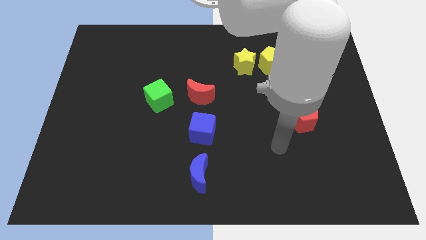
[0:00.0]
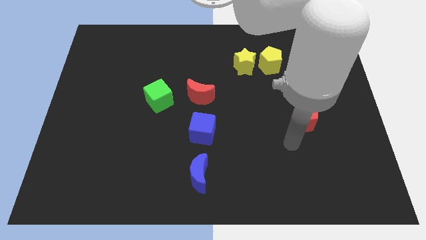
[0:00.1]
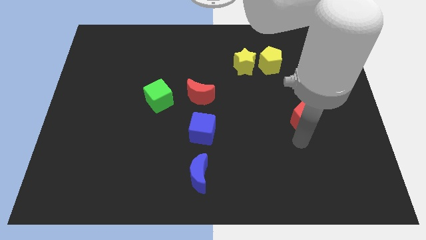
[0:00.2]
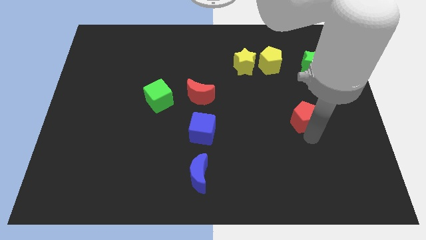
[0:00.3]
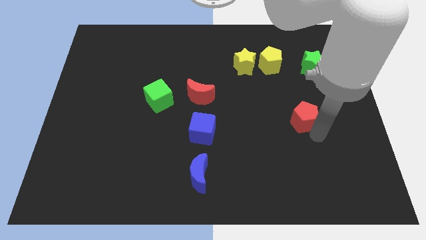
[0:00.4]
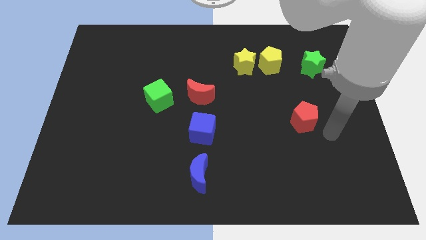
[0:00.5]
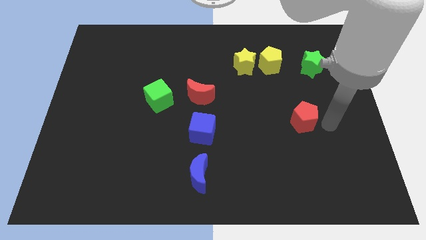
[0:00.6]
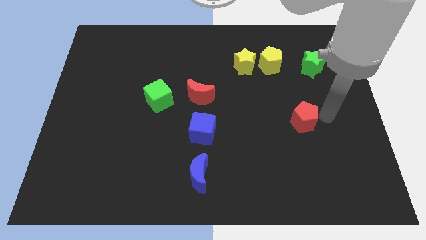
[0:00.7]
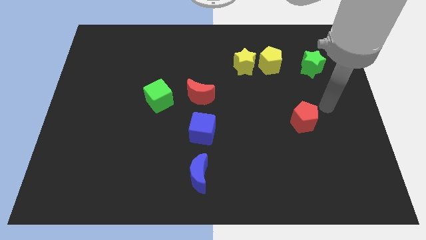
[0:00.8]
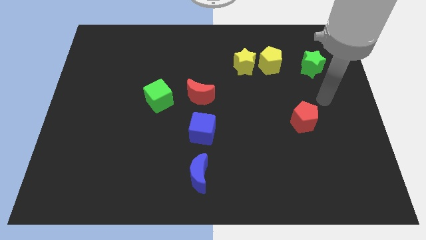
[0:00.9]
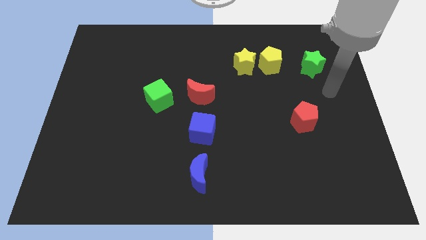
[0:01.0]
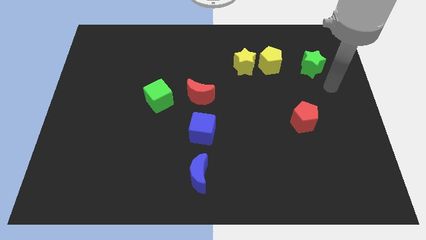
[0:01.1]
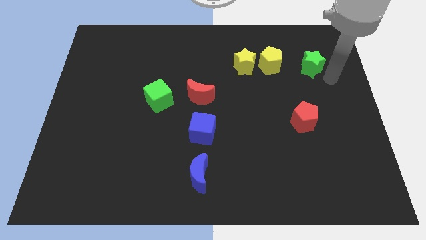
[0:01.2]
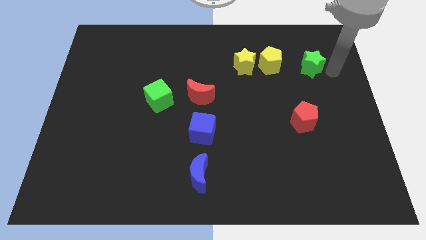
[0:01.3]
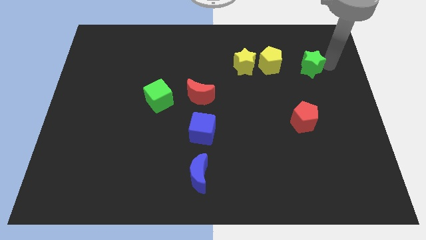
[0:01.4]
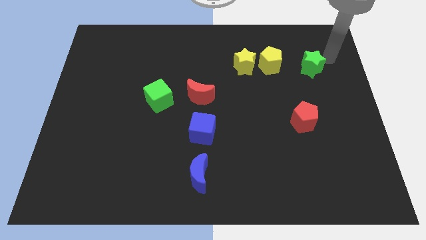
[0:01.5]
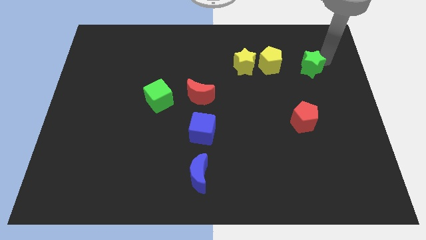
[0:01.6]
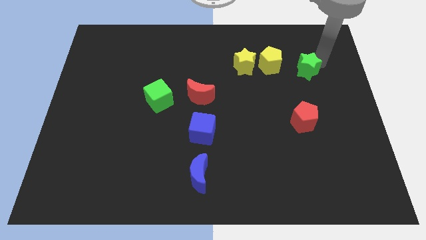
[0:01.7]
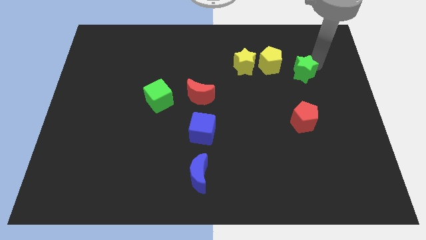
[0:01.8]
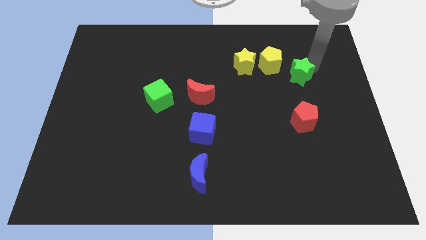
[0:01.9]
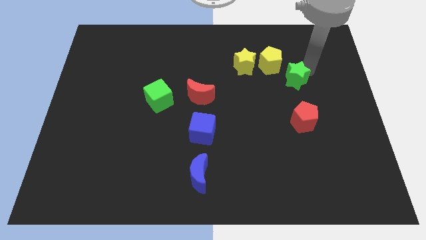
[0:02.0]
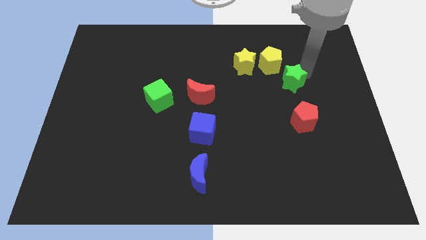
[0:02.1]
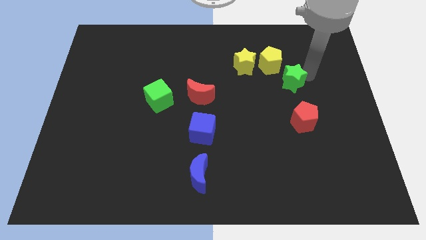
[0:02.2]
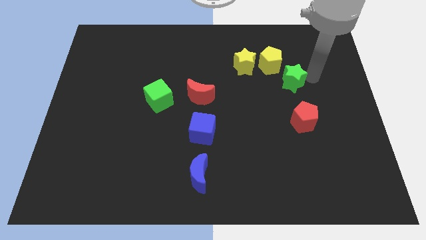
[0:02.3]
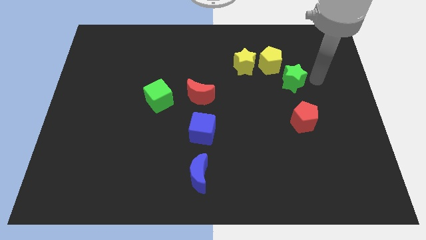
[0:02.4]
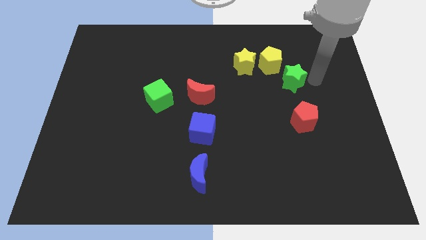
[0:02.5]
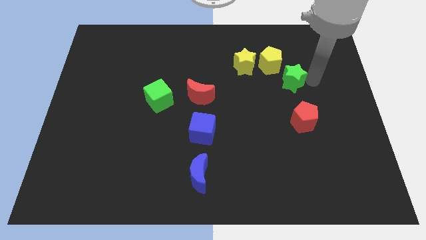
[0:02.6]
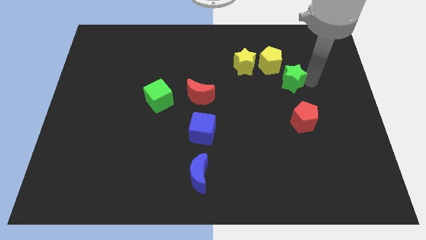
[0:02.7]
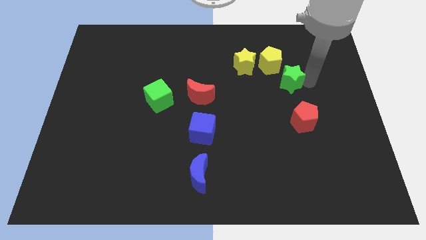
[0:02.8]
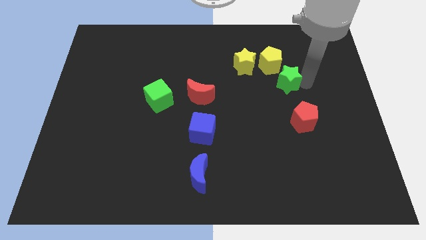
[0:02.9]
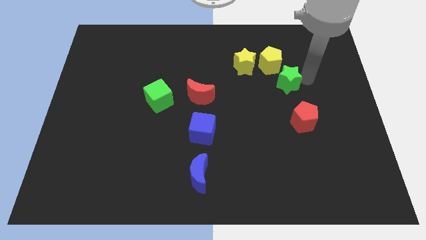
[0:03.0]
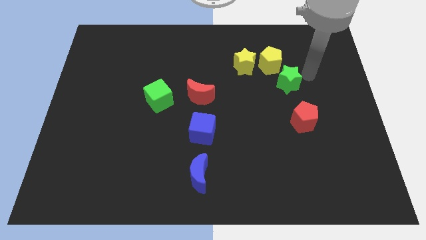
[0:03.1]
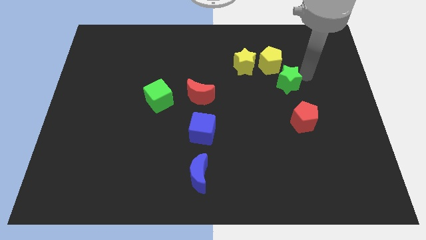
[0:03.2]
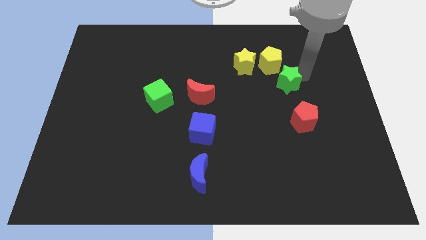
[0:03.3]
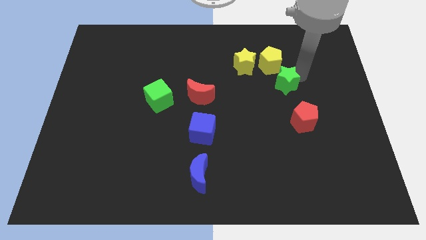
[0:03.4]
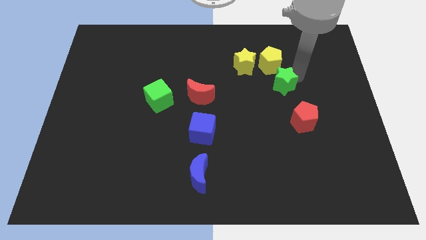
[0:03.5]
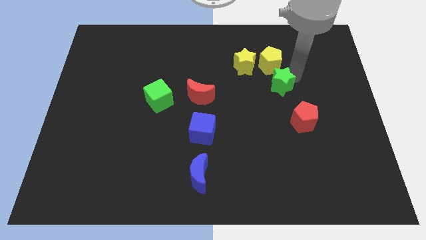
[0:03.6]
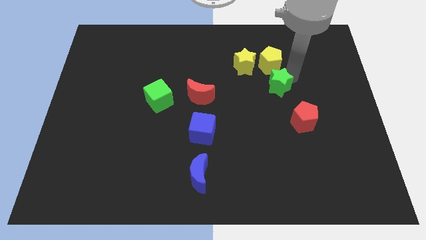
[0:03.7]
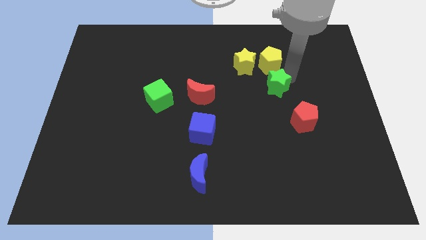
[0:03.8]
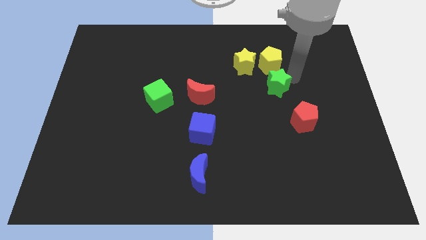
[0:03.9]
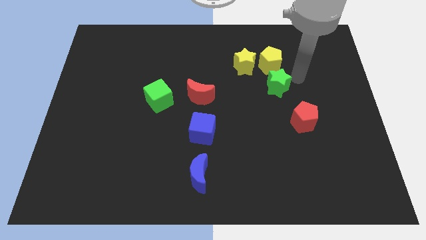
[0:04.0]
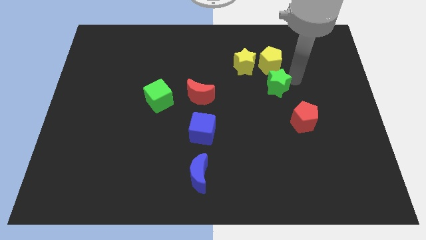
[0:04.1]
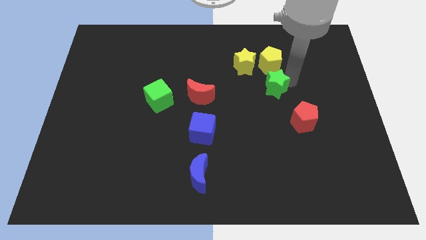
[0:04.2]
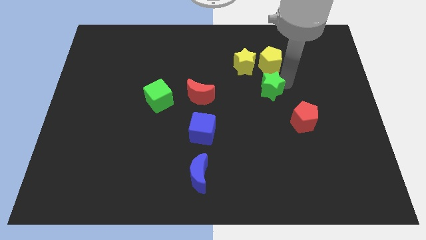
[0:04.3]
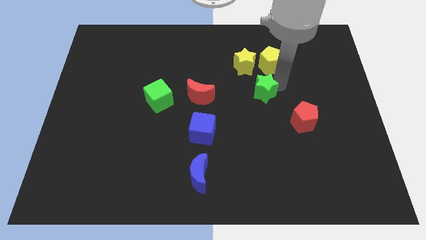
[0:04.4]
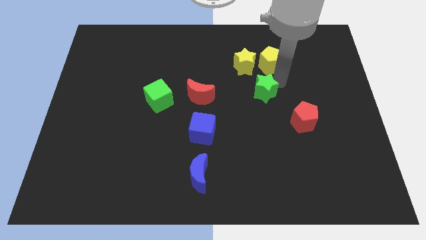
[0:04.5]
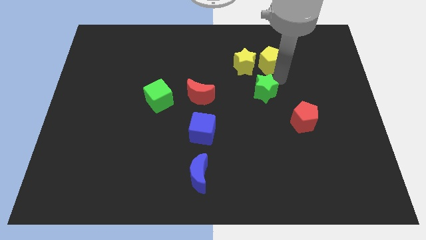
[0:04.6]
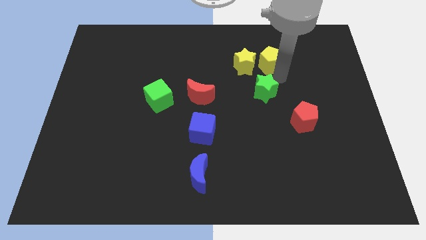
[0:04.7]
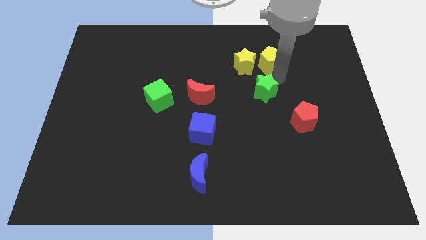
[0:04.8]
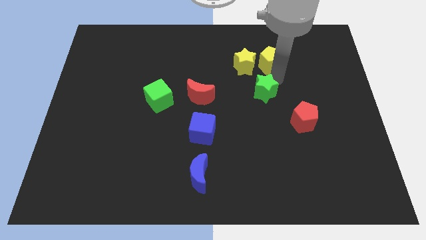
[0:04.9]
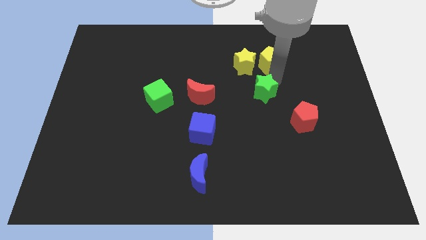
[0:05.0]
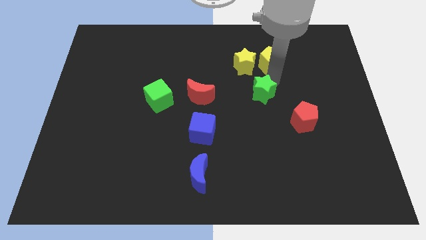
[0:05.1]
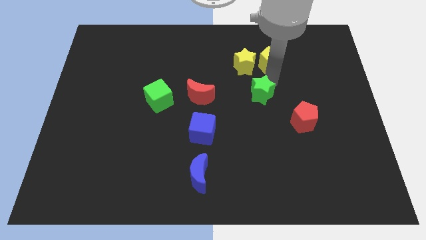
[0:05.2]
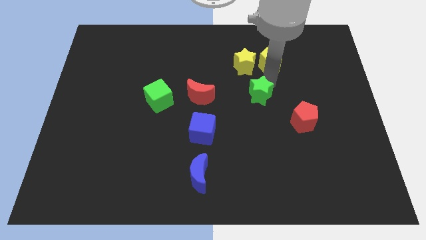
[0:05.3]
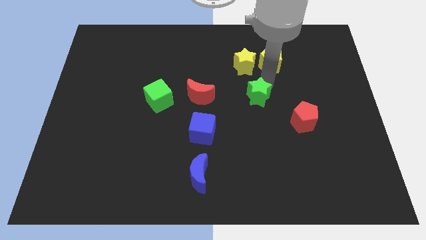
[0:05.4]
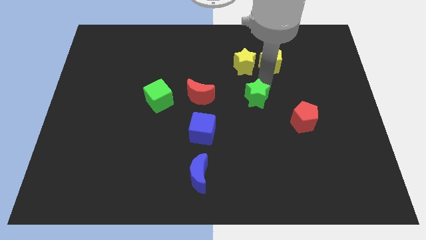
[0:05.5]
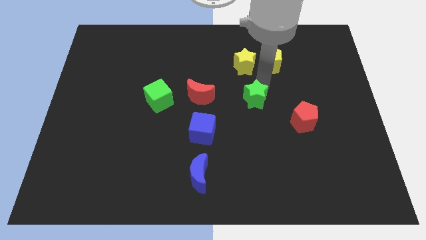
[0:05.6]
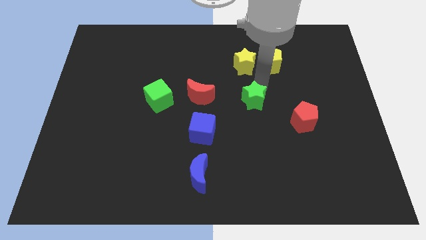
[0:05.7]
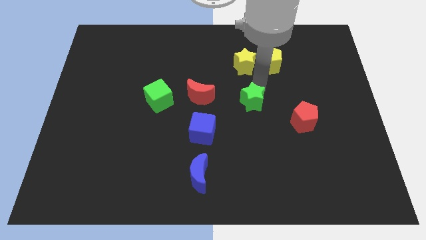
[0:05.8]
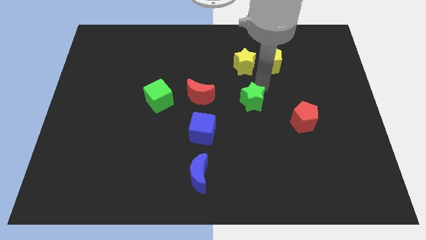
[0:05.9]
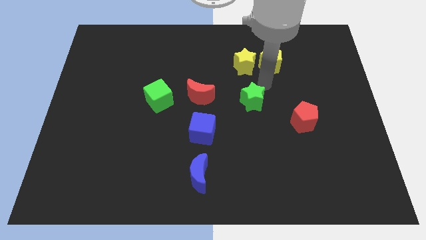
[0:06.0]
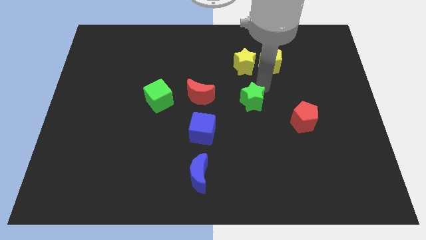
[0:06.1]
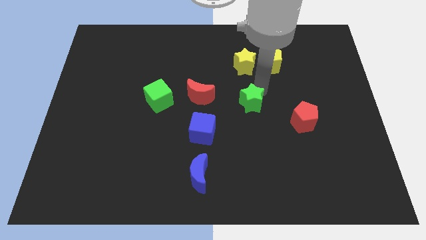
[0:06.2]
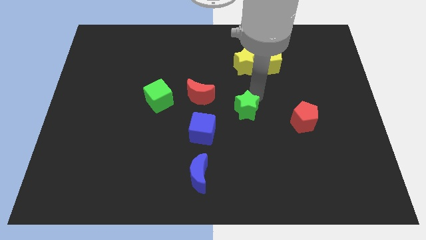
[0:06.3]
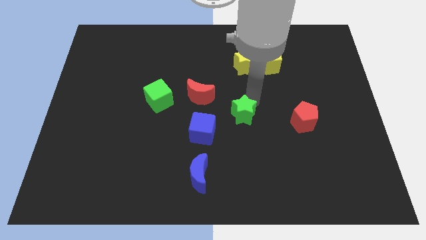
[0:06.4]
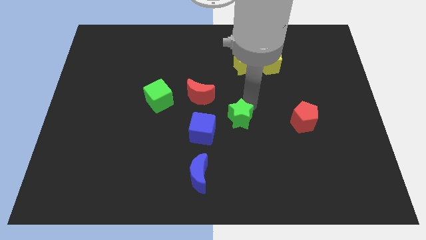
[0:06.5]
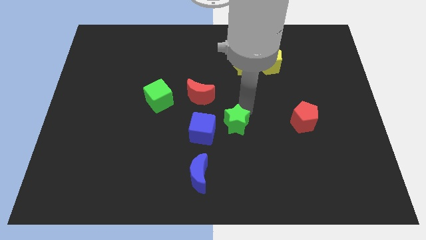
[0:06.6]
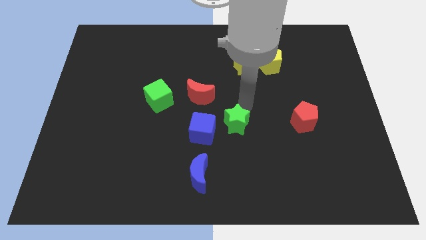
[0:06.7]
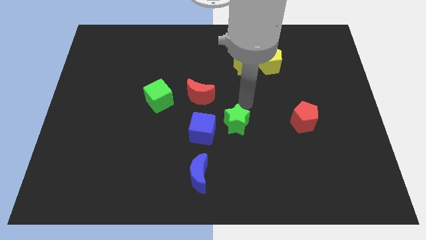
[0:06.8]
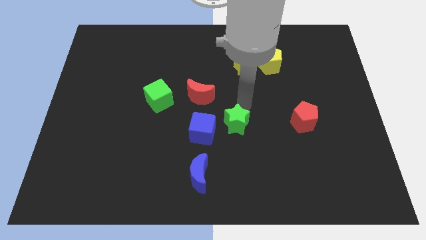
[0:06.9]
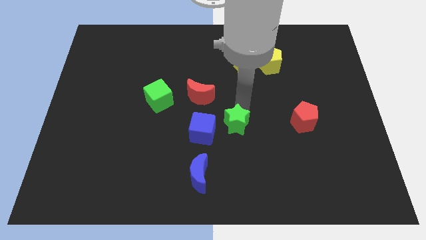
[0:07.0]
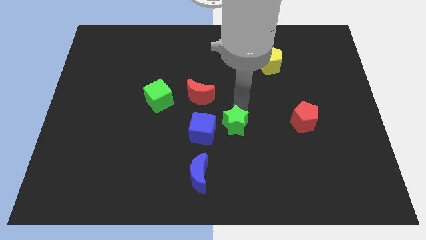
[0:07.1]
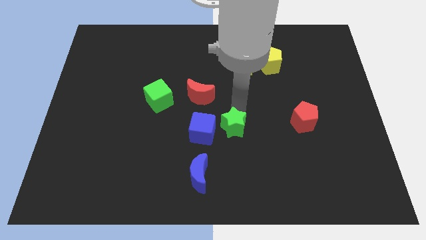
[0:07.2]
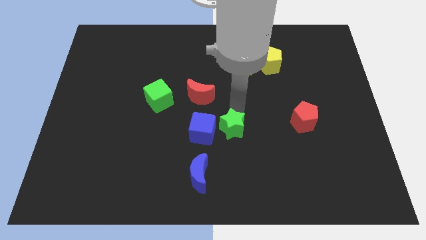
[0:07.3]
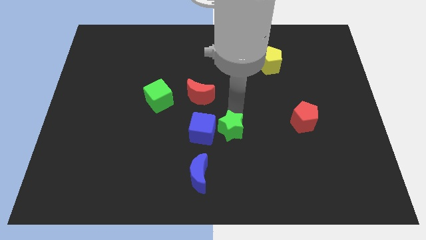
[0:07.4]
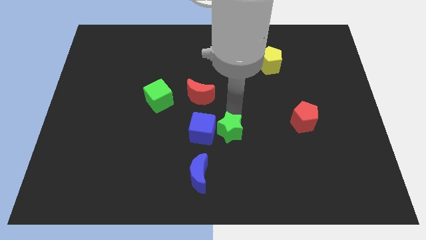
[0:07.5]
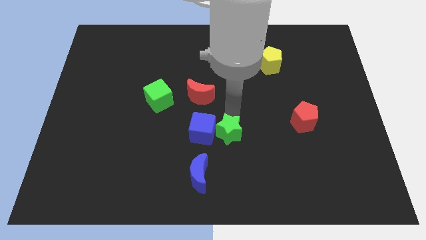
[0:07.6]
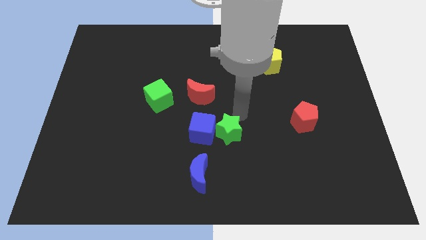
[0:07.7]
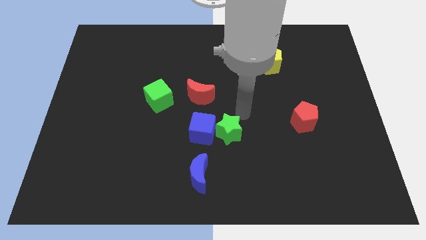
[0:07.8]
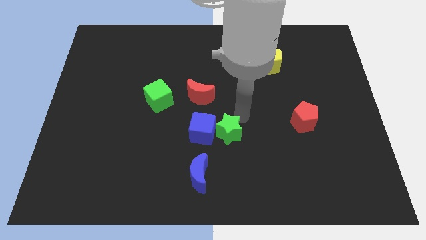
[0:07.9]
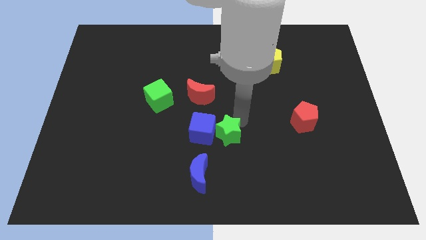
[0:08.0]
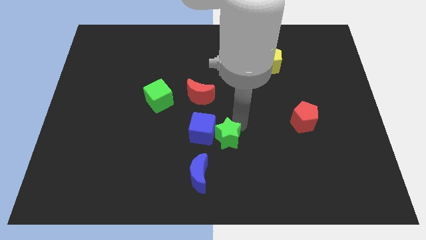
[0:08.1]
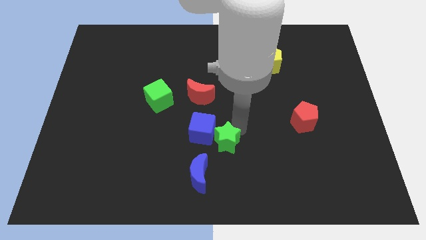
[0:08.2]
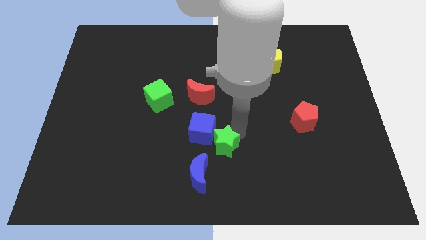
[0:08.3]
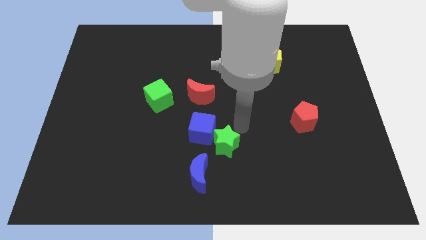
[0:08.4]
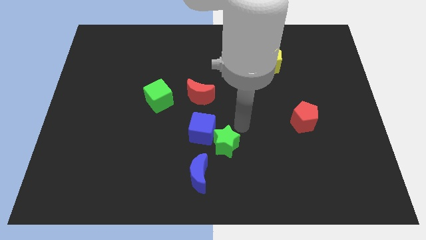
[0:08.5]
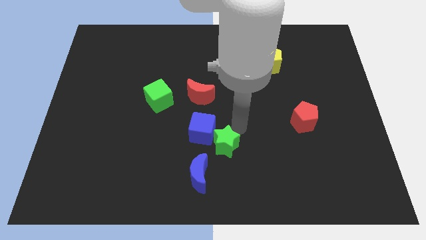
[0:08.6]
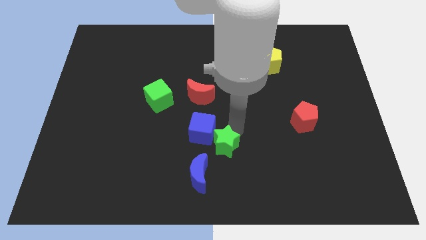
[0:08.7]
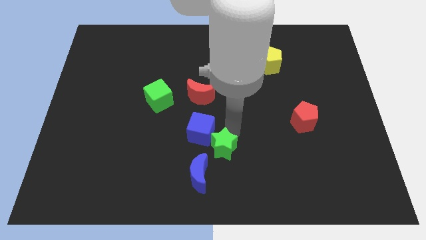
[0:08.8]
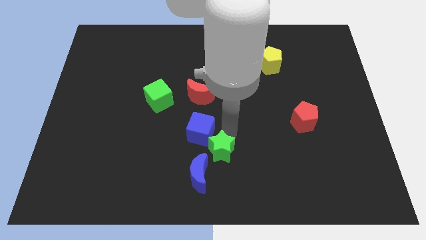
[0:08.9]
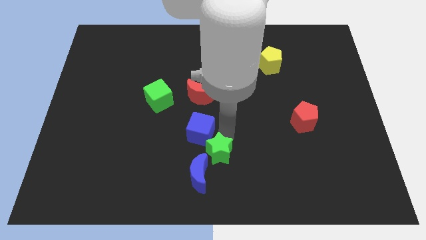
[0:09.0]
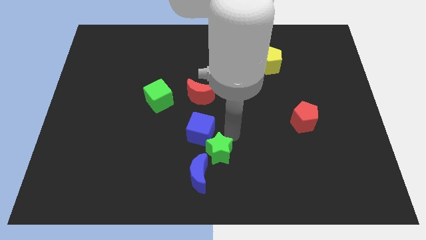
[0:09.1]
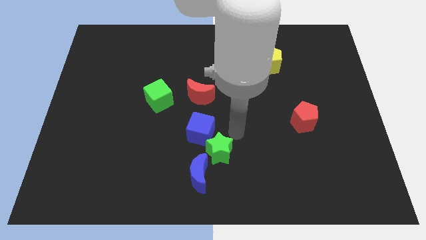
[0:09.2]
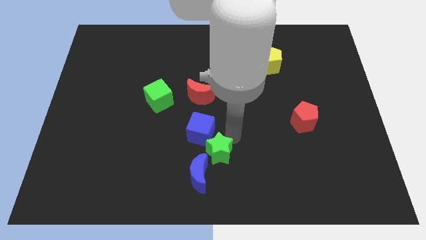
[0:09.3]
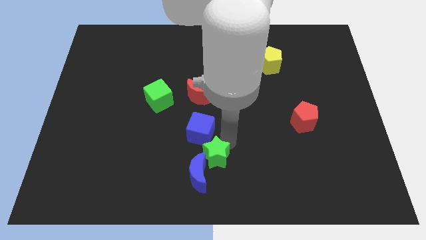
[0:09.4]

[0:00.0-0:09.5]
put the green star next to the blue moon
